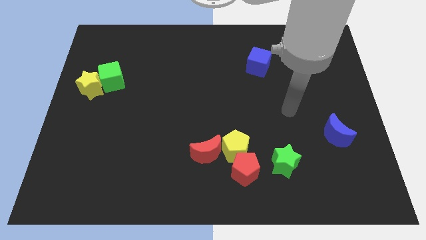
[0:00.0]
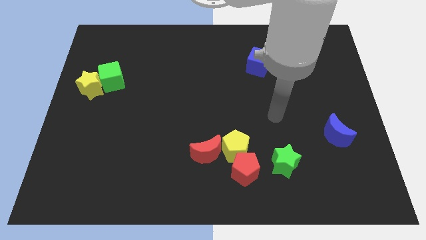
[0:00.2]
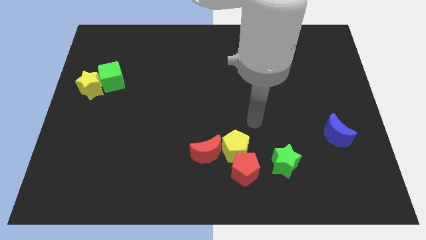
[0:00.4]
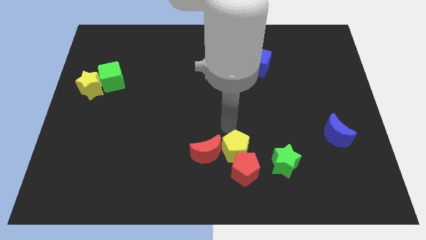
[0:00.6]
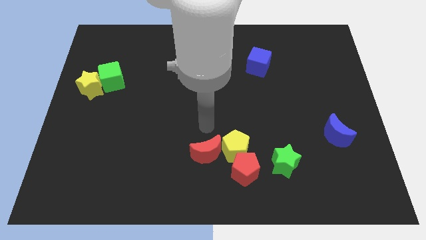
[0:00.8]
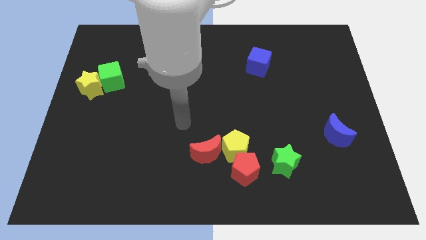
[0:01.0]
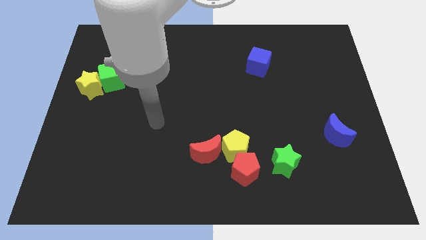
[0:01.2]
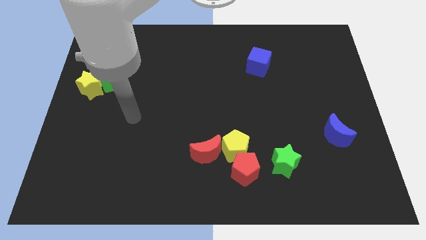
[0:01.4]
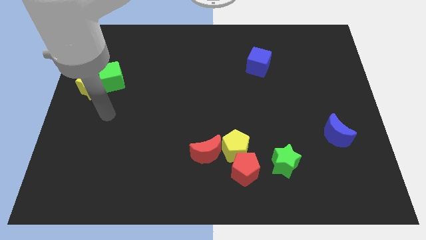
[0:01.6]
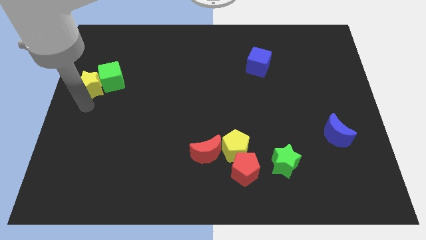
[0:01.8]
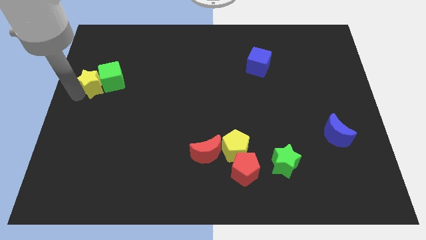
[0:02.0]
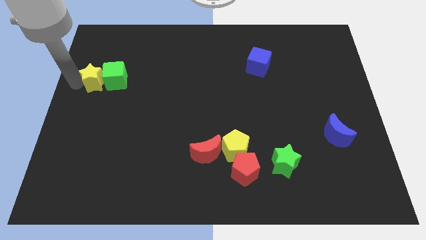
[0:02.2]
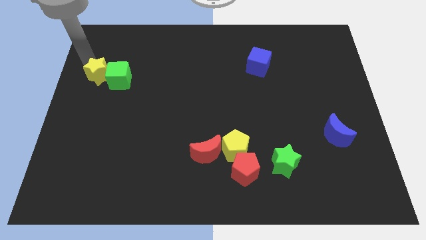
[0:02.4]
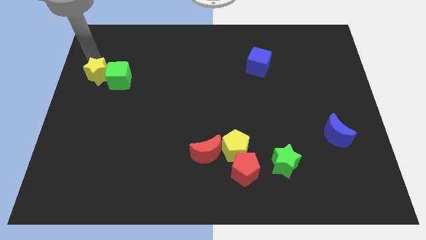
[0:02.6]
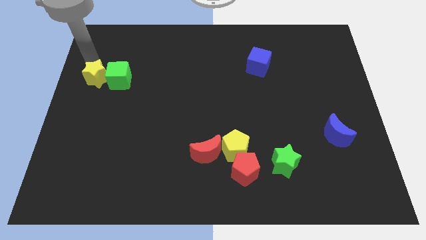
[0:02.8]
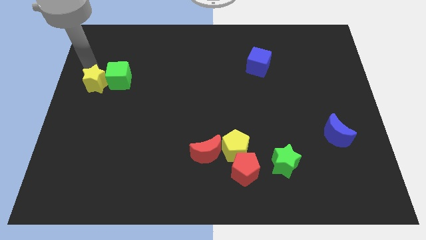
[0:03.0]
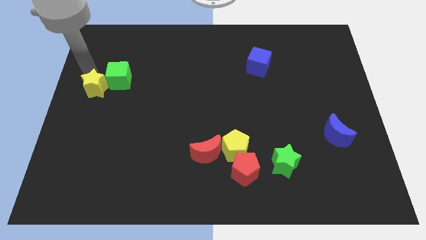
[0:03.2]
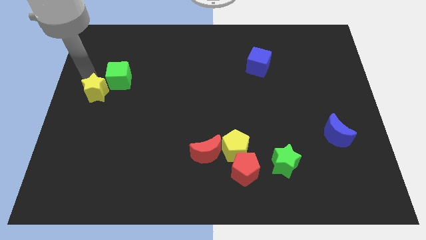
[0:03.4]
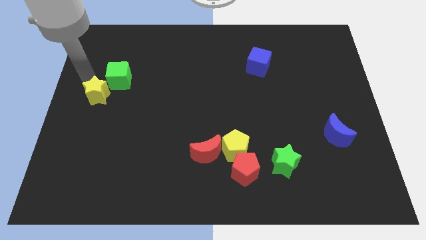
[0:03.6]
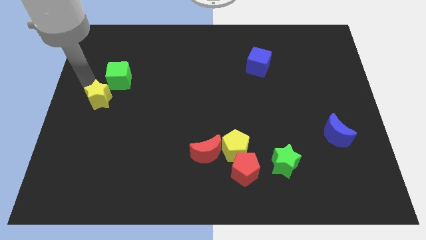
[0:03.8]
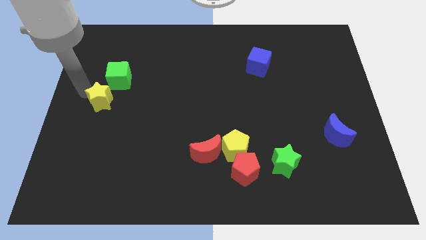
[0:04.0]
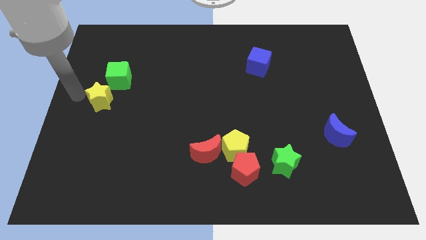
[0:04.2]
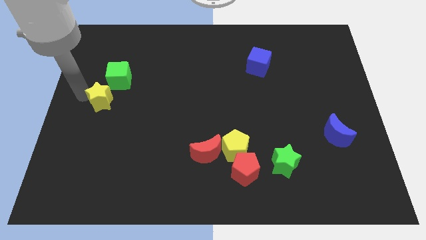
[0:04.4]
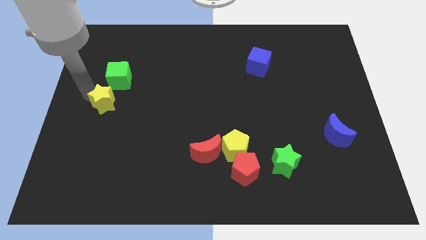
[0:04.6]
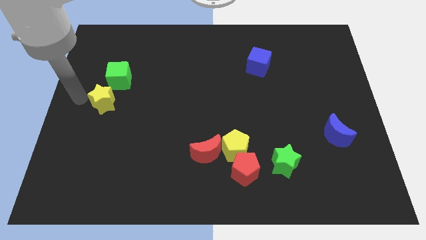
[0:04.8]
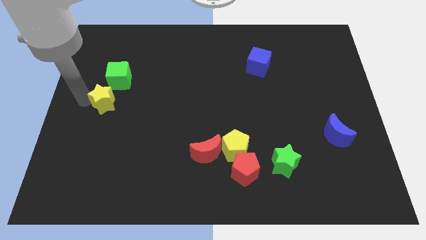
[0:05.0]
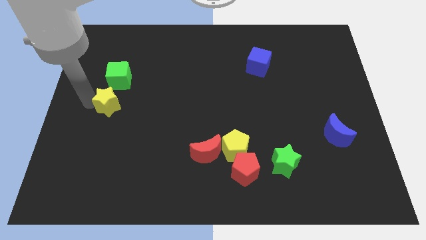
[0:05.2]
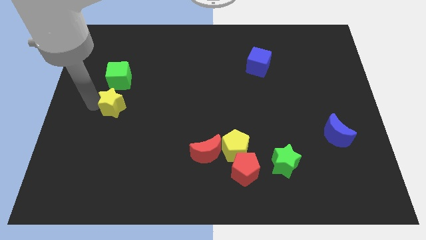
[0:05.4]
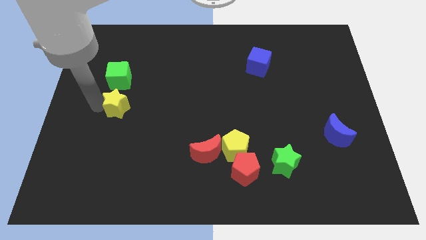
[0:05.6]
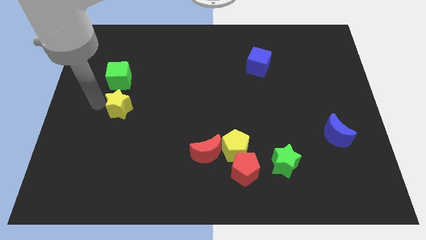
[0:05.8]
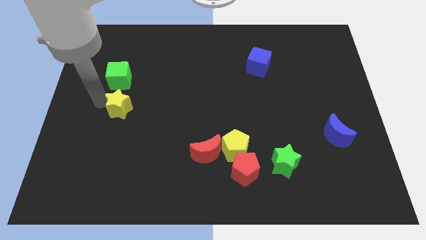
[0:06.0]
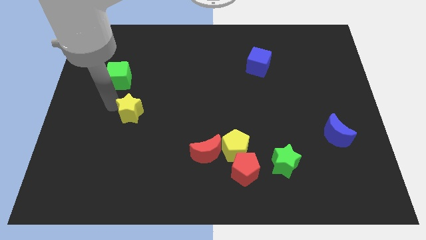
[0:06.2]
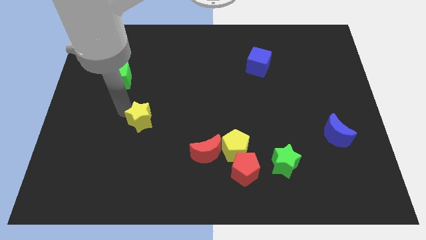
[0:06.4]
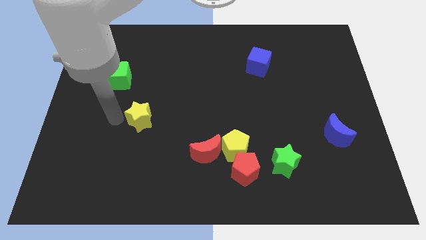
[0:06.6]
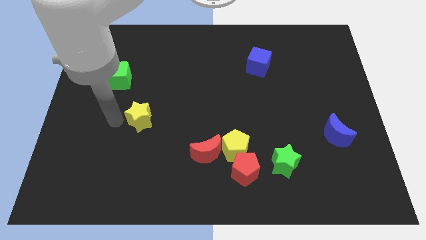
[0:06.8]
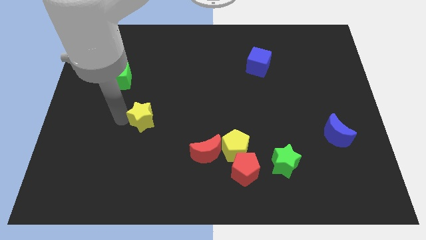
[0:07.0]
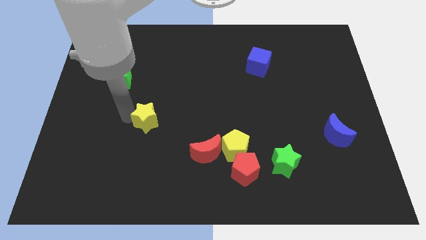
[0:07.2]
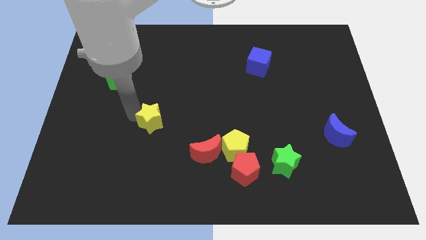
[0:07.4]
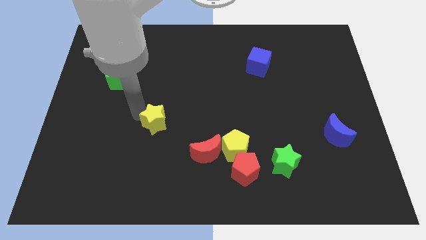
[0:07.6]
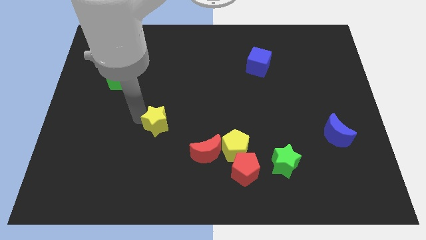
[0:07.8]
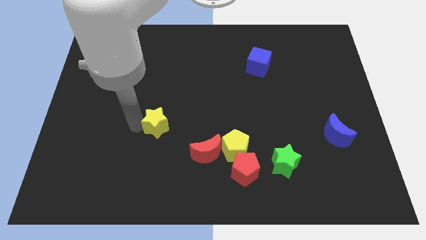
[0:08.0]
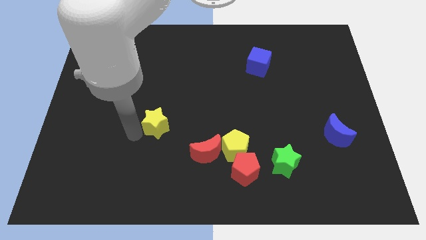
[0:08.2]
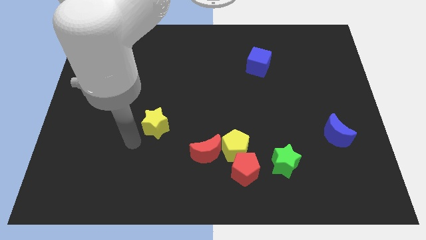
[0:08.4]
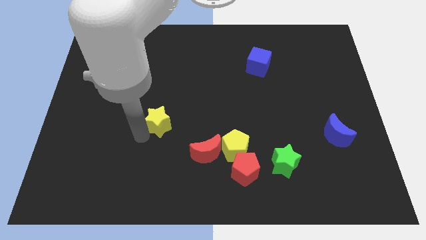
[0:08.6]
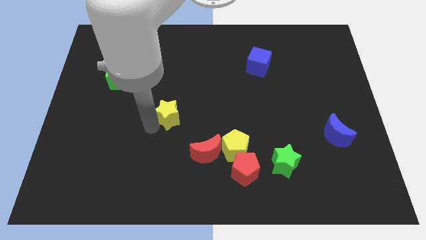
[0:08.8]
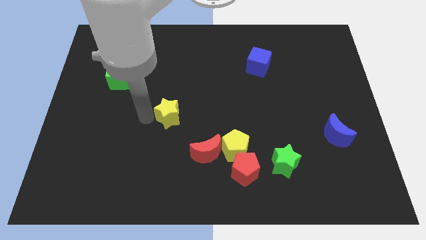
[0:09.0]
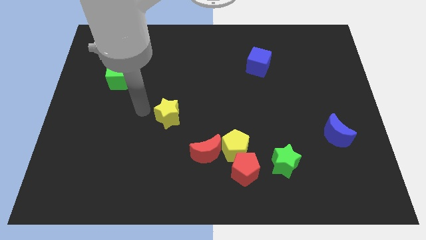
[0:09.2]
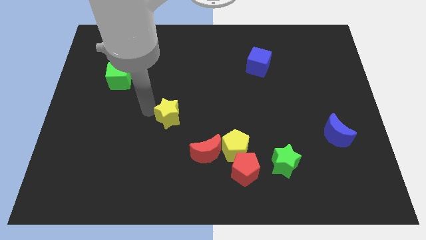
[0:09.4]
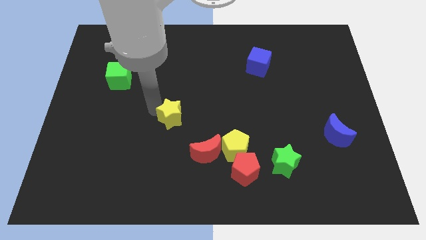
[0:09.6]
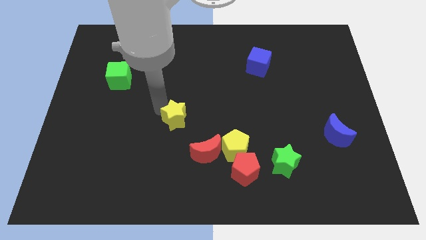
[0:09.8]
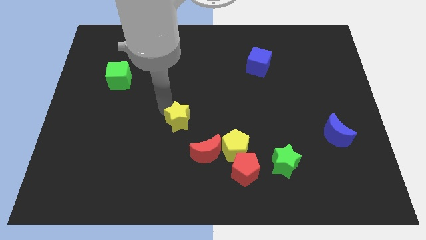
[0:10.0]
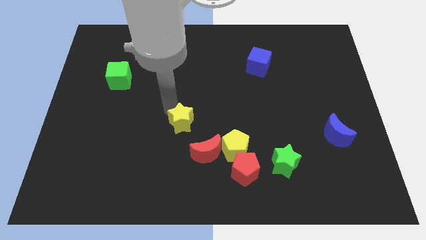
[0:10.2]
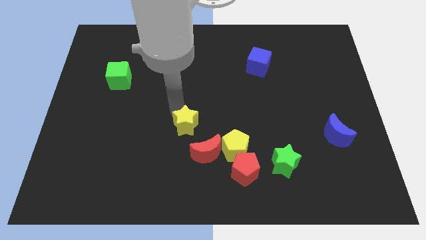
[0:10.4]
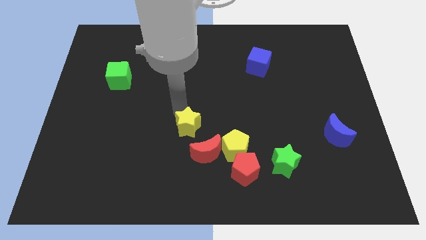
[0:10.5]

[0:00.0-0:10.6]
move the yellow star to the top left of the yellow pentagon

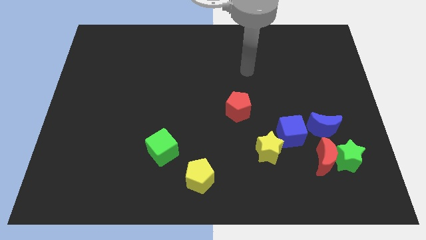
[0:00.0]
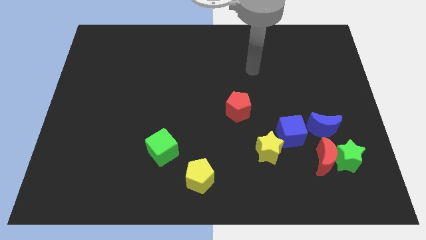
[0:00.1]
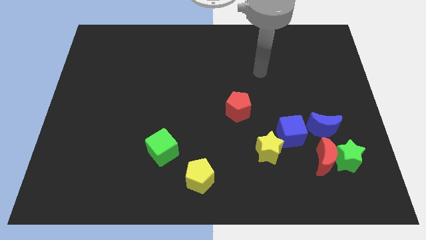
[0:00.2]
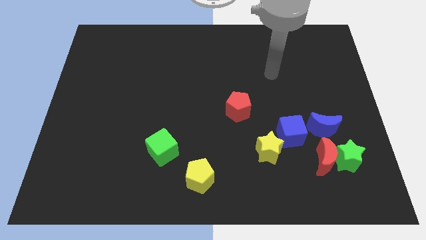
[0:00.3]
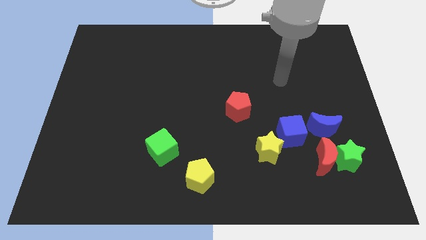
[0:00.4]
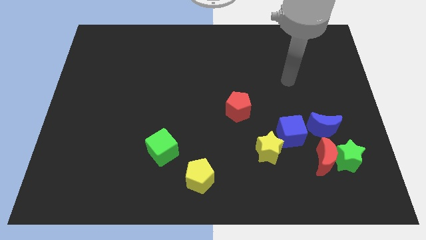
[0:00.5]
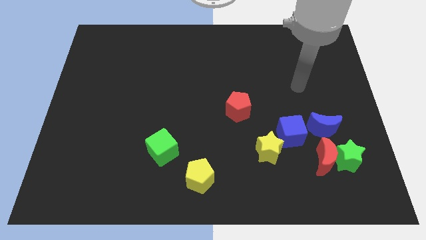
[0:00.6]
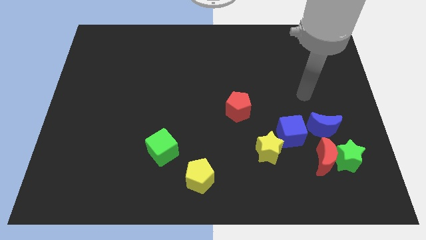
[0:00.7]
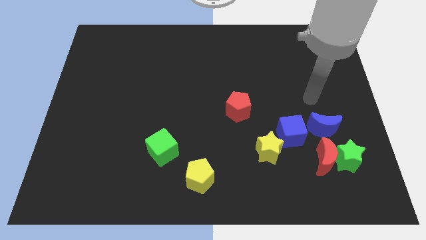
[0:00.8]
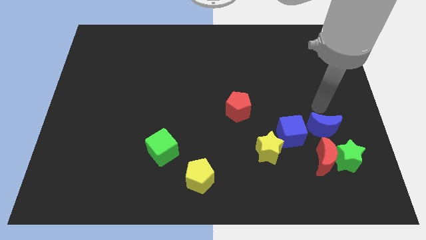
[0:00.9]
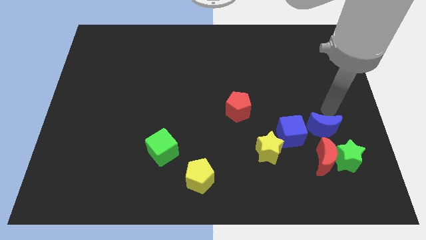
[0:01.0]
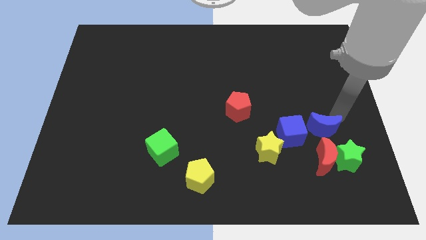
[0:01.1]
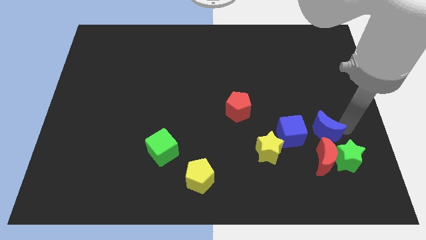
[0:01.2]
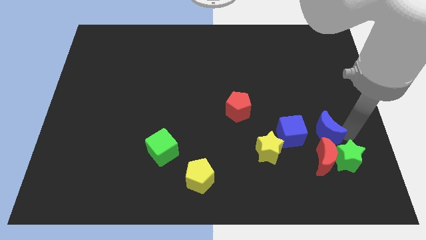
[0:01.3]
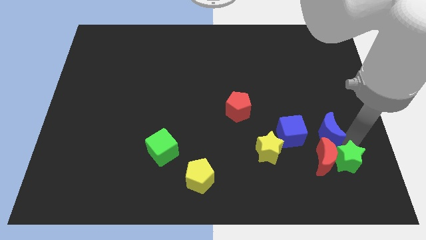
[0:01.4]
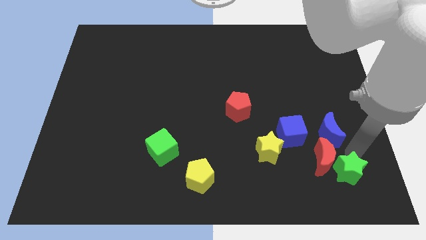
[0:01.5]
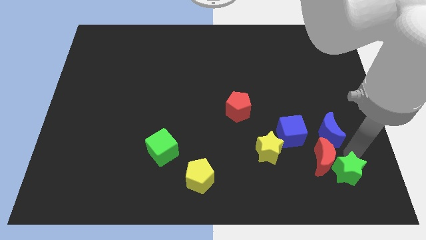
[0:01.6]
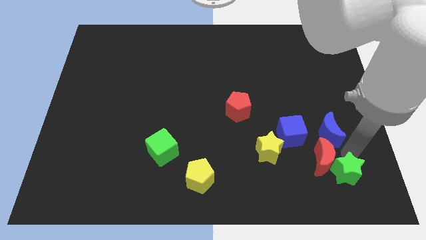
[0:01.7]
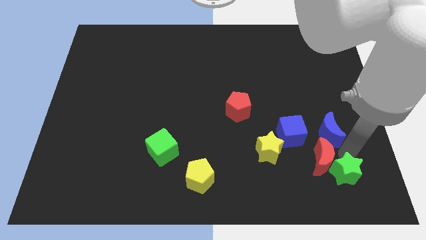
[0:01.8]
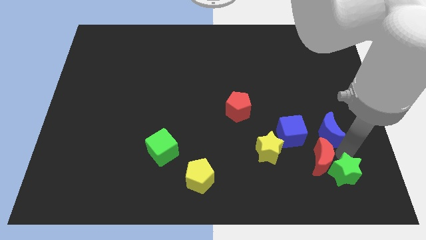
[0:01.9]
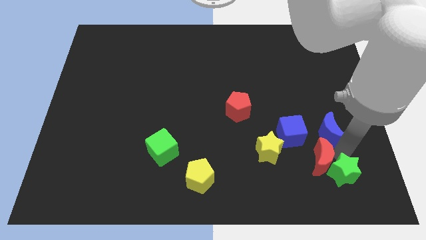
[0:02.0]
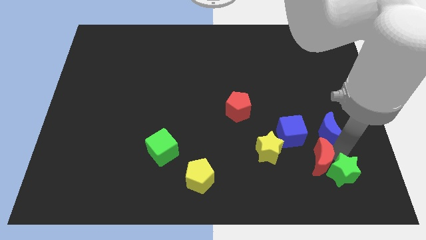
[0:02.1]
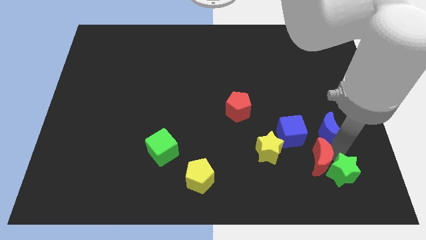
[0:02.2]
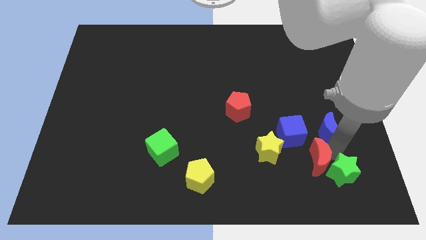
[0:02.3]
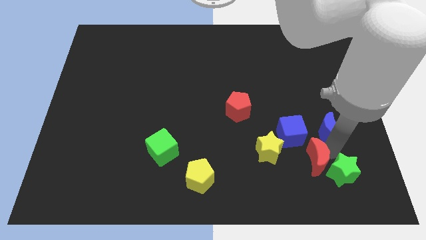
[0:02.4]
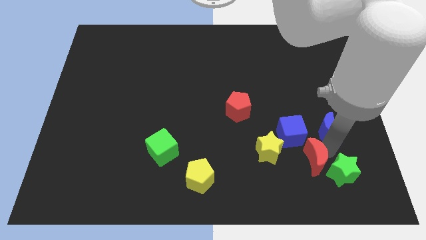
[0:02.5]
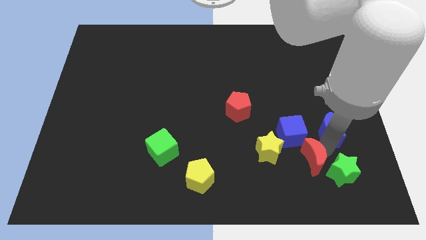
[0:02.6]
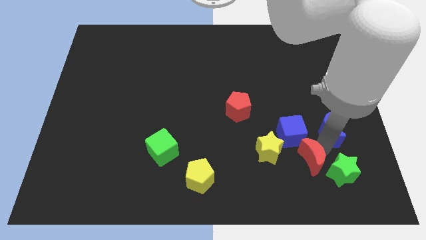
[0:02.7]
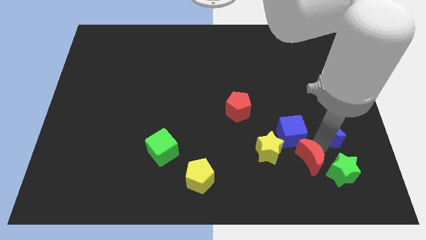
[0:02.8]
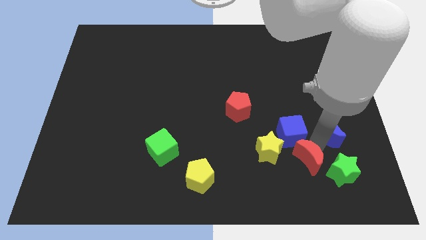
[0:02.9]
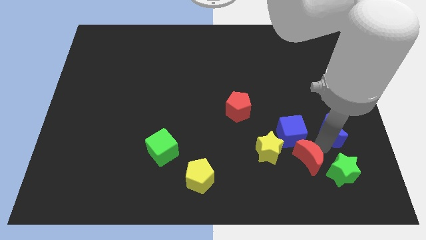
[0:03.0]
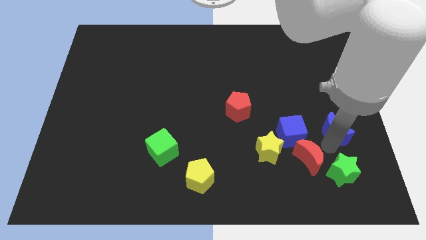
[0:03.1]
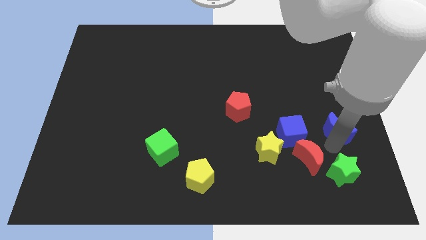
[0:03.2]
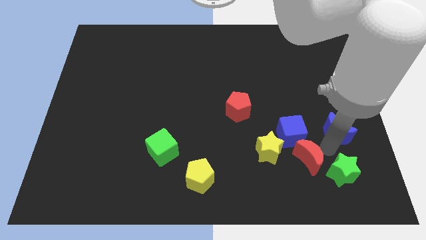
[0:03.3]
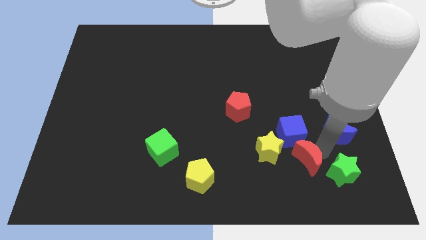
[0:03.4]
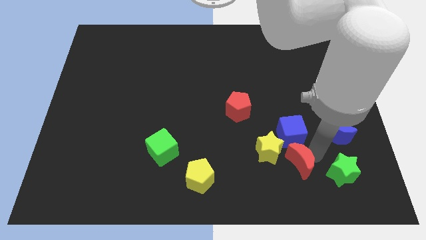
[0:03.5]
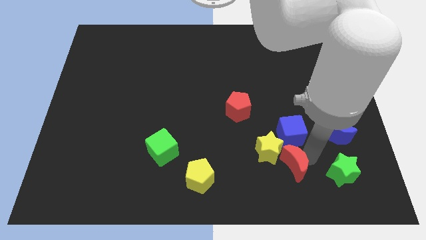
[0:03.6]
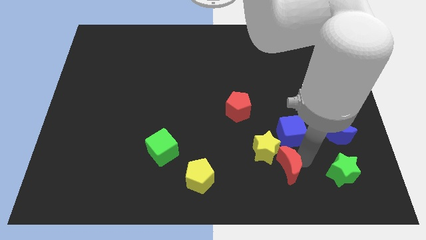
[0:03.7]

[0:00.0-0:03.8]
move the red moon diagonally down and to the left of the blue cube
